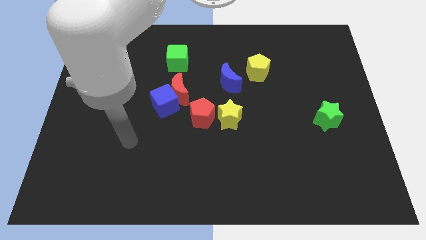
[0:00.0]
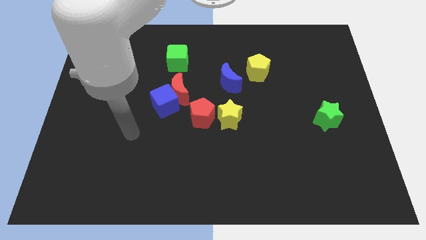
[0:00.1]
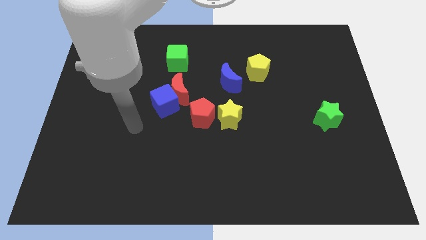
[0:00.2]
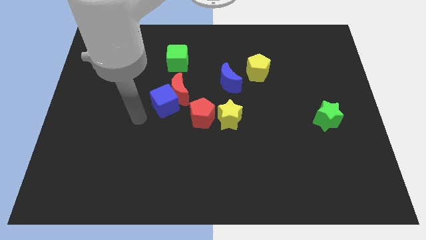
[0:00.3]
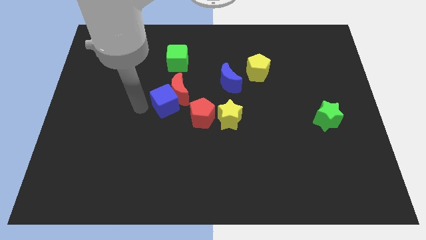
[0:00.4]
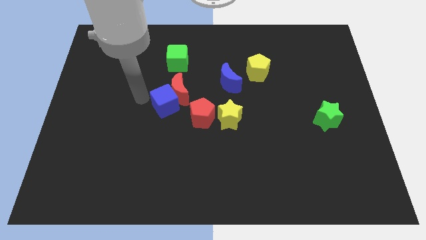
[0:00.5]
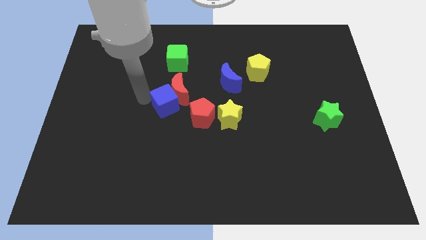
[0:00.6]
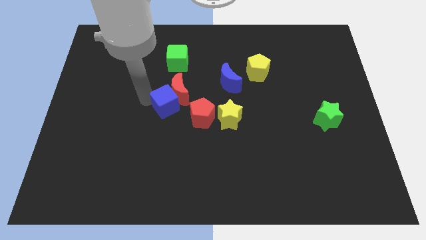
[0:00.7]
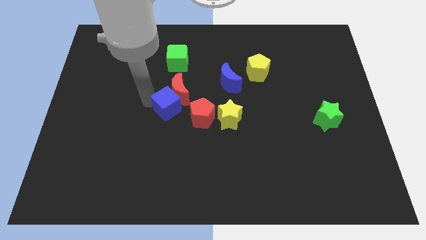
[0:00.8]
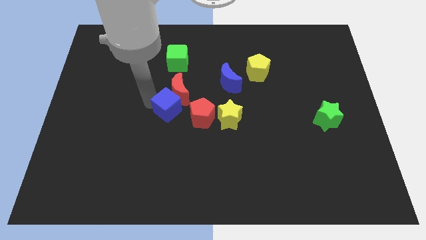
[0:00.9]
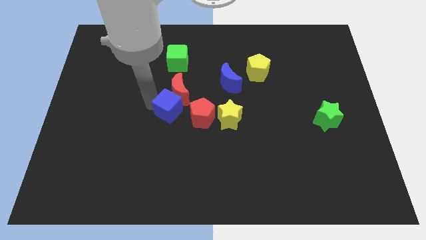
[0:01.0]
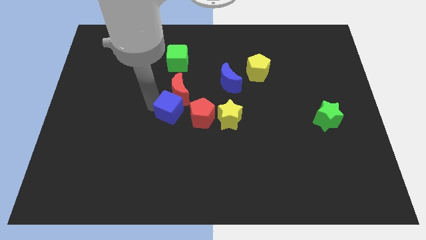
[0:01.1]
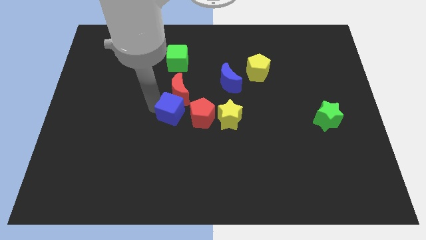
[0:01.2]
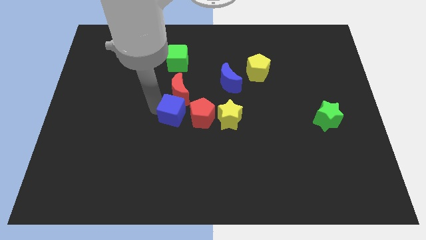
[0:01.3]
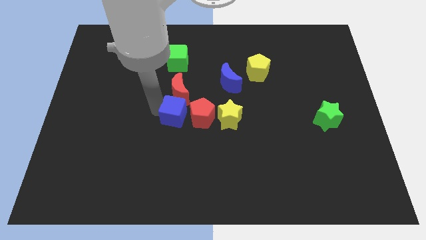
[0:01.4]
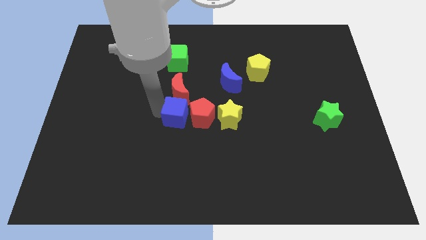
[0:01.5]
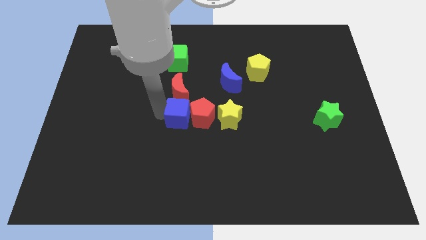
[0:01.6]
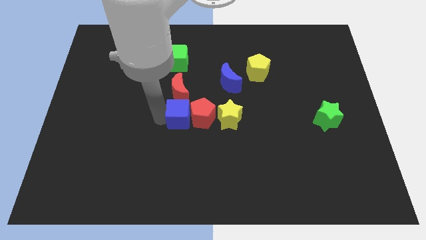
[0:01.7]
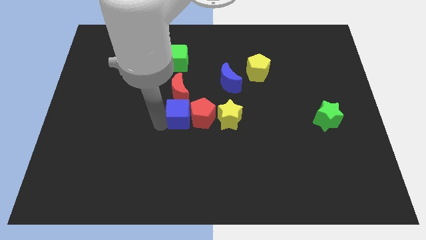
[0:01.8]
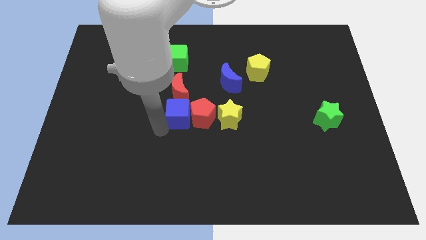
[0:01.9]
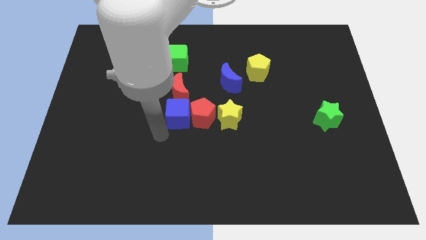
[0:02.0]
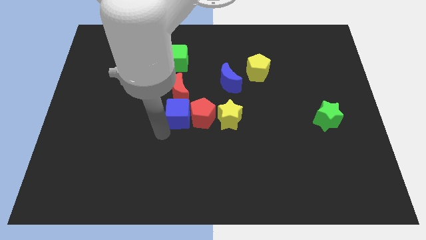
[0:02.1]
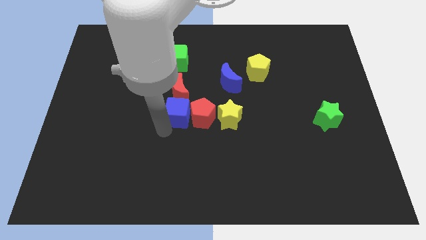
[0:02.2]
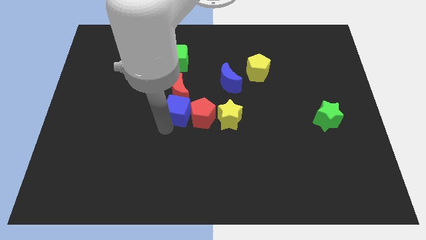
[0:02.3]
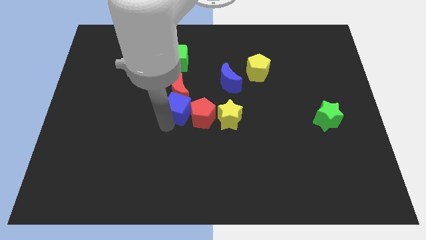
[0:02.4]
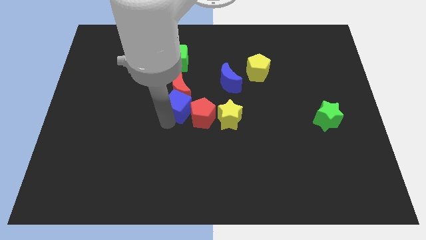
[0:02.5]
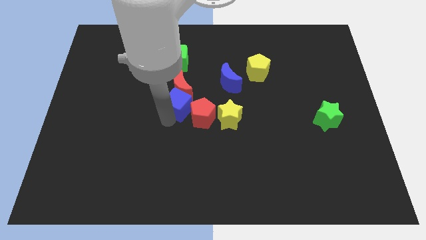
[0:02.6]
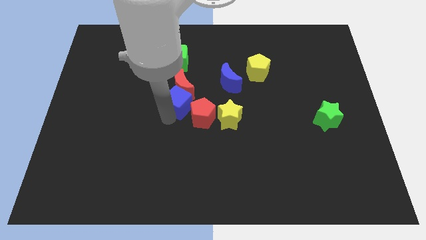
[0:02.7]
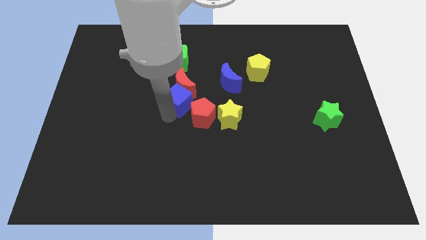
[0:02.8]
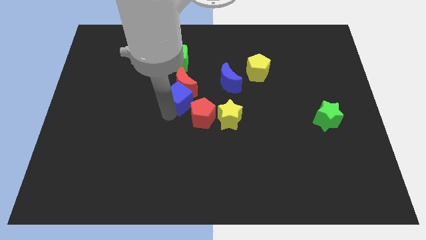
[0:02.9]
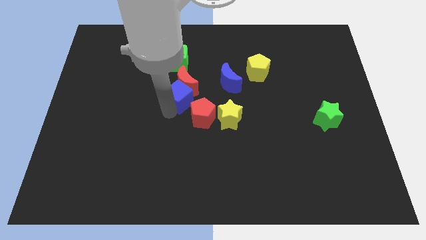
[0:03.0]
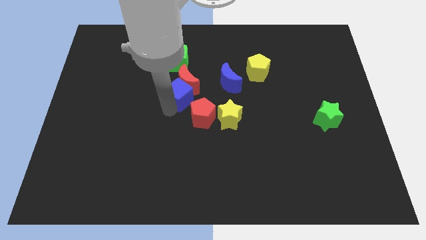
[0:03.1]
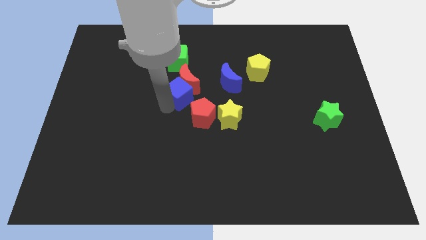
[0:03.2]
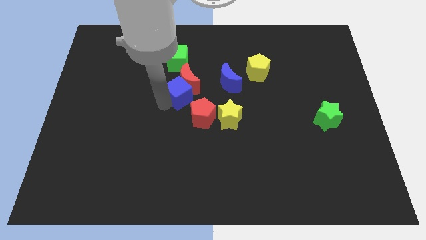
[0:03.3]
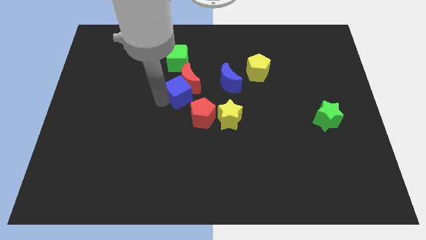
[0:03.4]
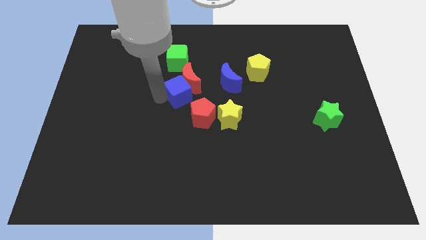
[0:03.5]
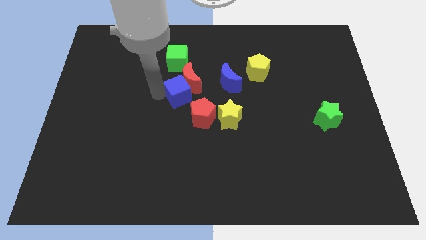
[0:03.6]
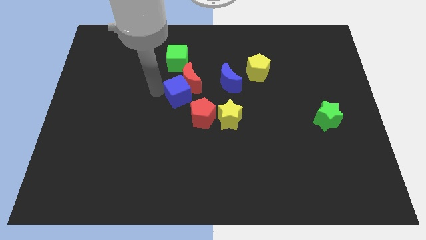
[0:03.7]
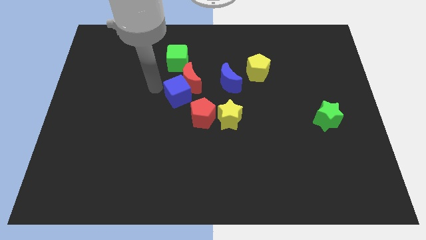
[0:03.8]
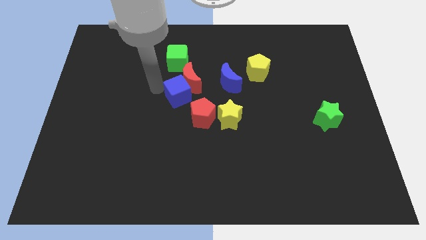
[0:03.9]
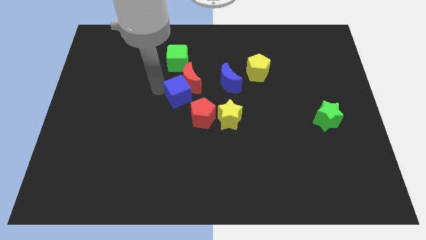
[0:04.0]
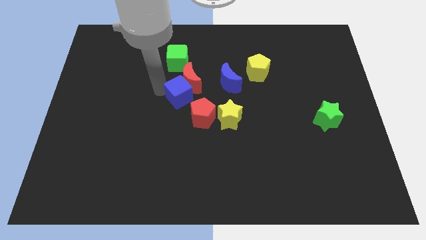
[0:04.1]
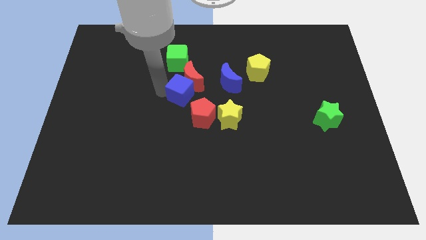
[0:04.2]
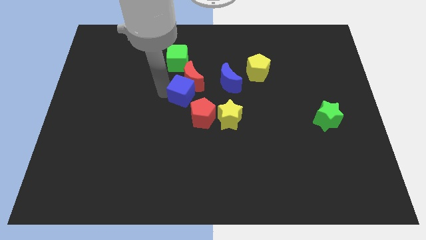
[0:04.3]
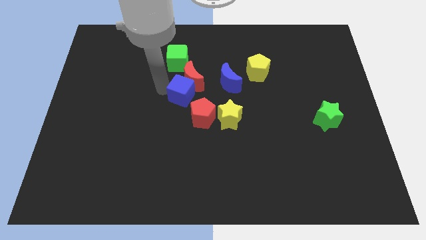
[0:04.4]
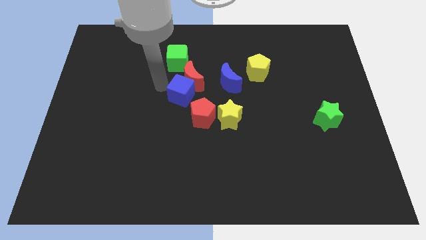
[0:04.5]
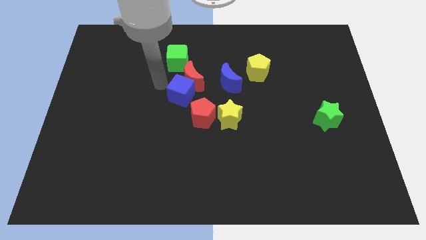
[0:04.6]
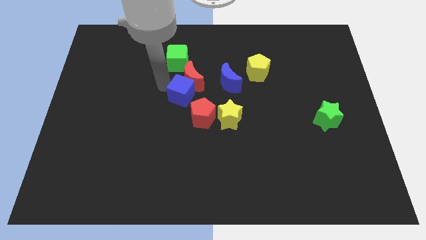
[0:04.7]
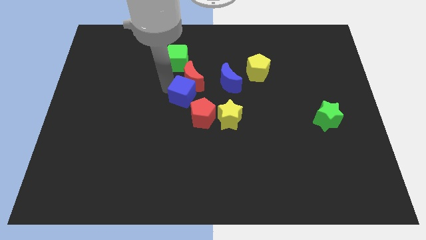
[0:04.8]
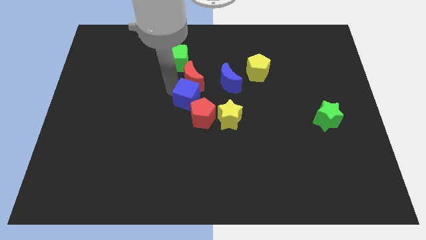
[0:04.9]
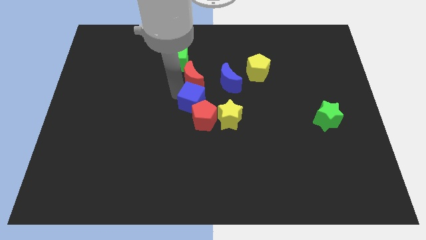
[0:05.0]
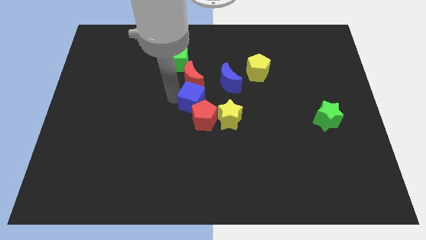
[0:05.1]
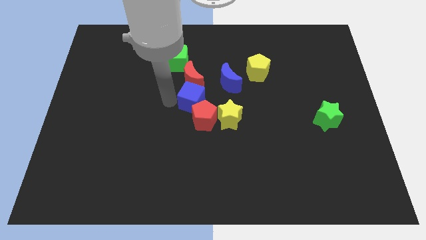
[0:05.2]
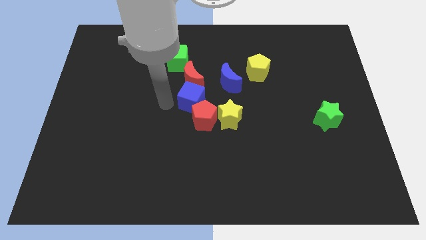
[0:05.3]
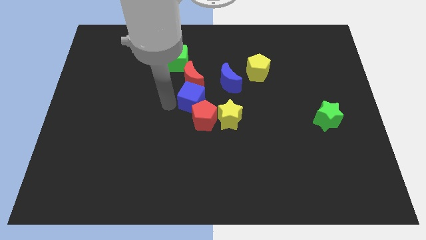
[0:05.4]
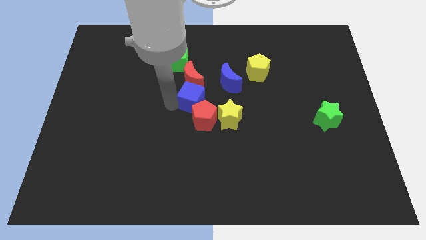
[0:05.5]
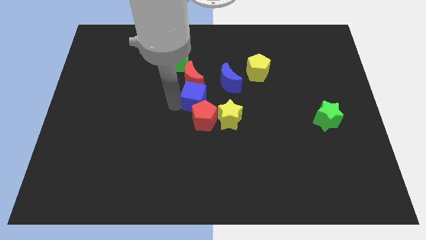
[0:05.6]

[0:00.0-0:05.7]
move the blue cube right a little

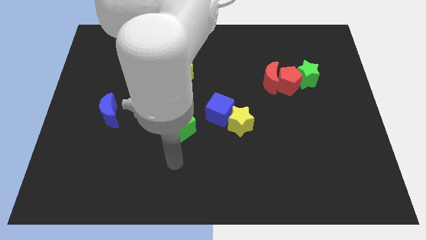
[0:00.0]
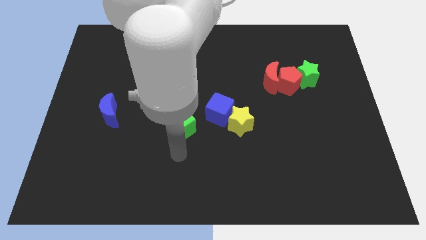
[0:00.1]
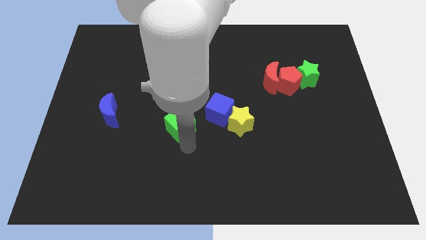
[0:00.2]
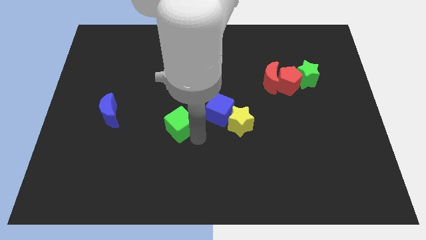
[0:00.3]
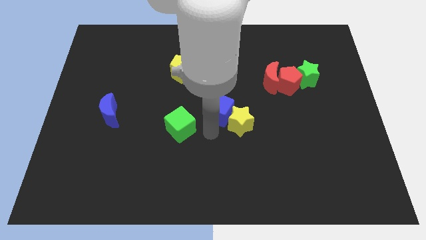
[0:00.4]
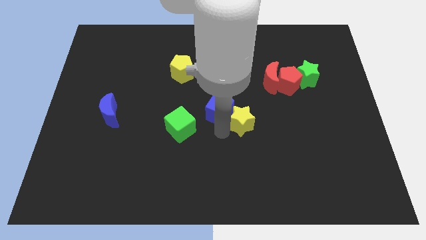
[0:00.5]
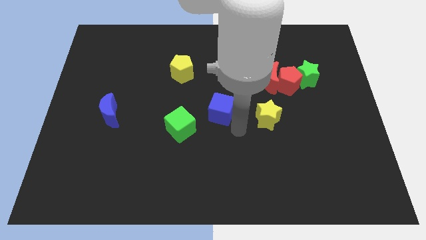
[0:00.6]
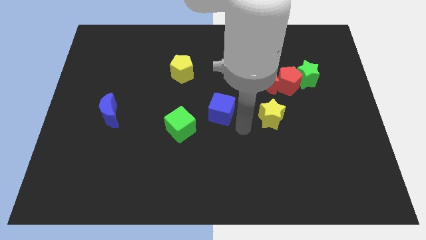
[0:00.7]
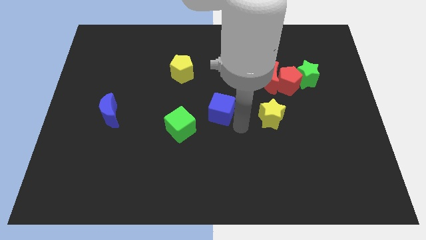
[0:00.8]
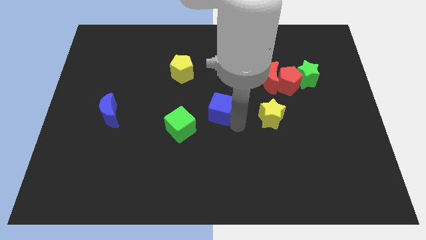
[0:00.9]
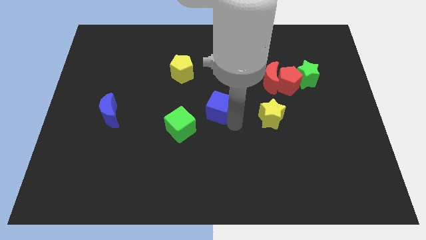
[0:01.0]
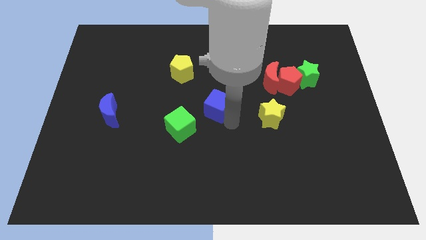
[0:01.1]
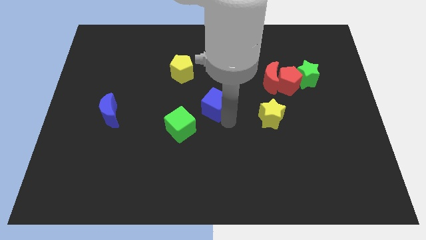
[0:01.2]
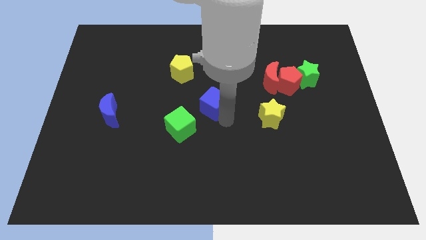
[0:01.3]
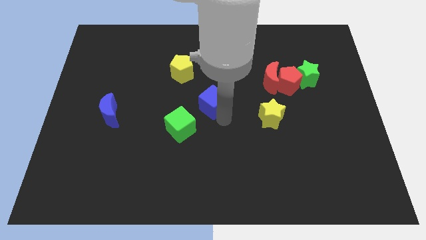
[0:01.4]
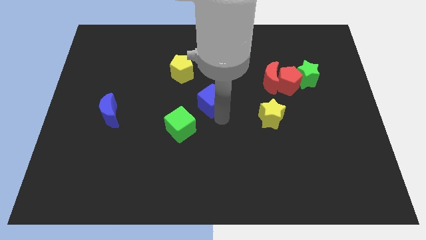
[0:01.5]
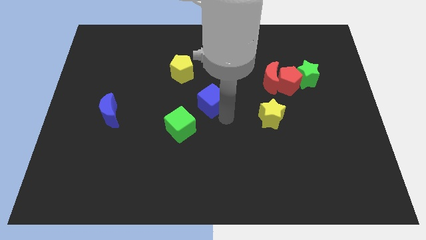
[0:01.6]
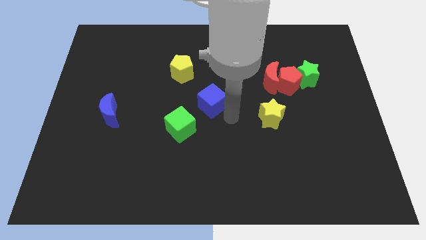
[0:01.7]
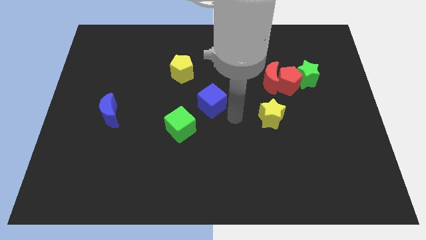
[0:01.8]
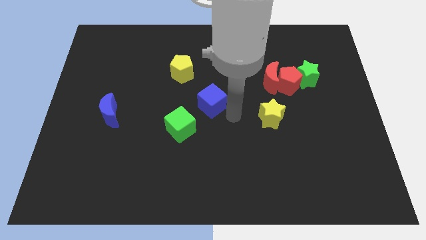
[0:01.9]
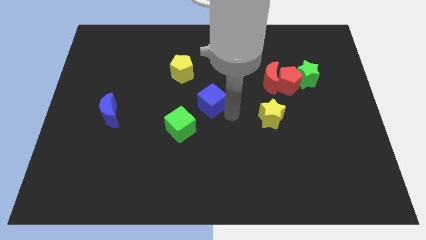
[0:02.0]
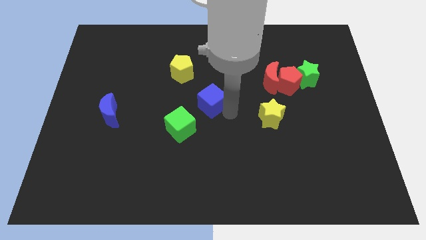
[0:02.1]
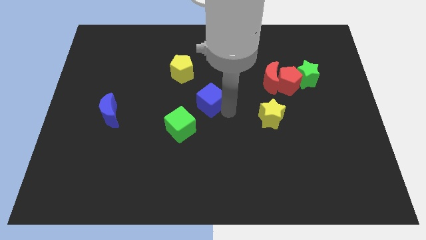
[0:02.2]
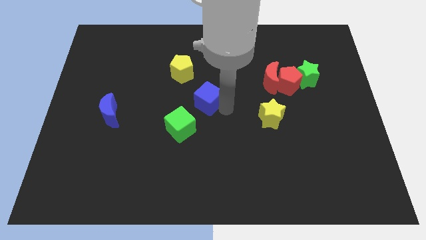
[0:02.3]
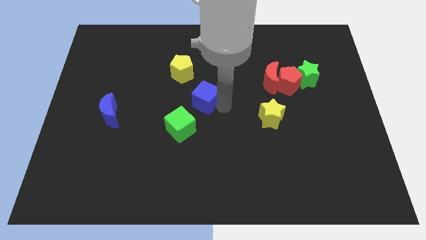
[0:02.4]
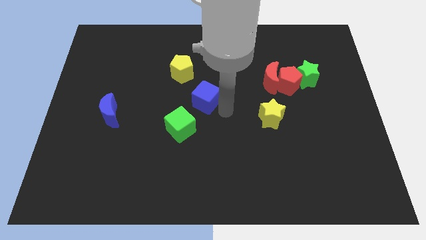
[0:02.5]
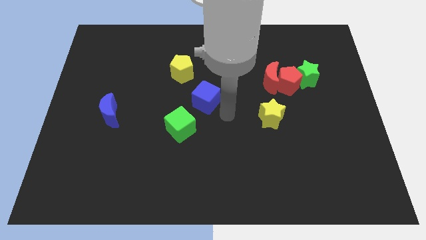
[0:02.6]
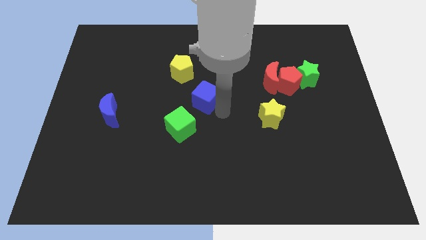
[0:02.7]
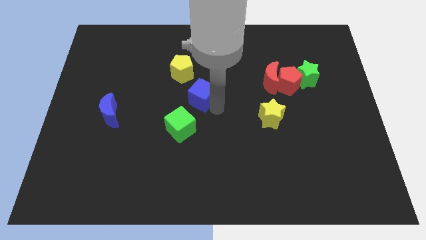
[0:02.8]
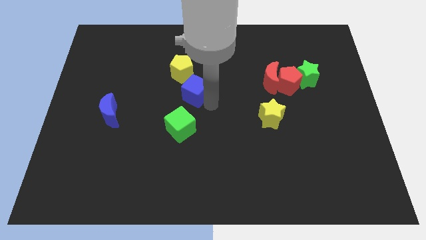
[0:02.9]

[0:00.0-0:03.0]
push the blue cube up and then to the left a bit
